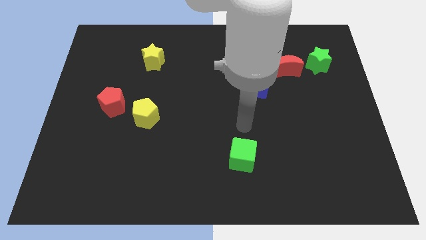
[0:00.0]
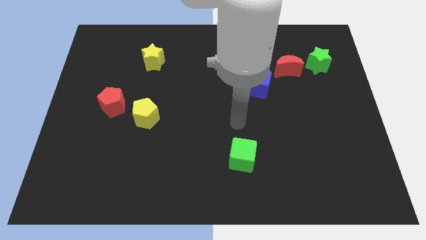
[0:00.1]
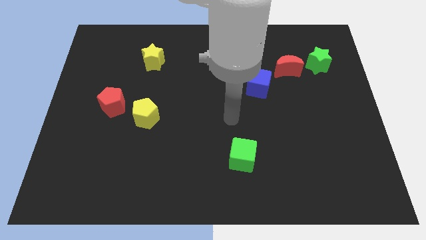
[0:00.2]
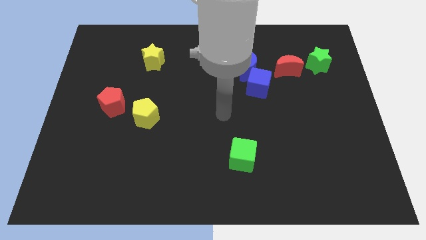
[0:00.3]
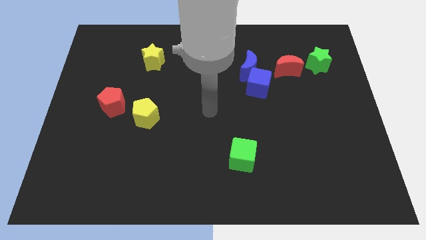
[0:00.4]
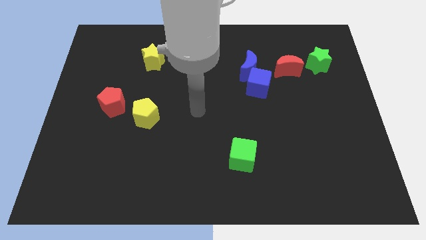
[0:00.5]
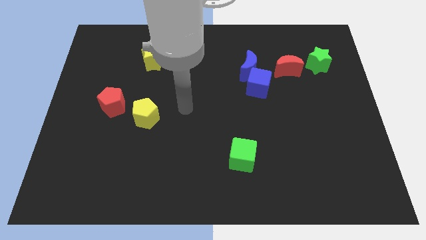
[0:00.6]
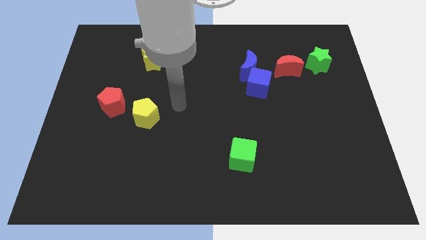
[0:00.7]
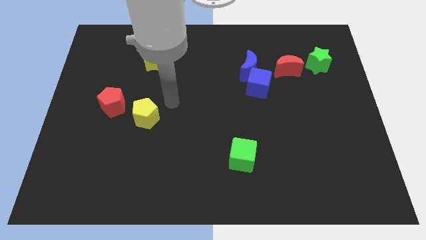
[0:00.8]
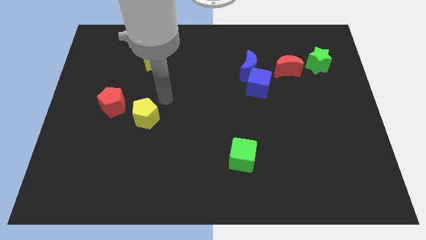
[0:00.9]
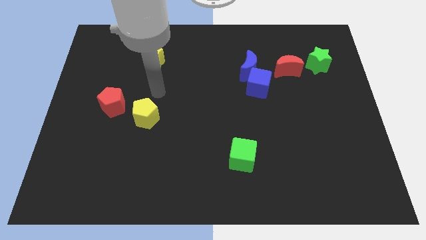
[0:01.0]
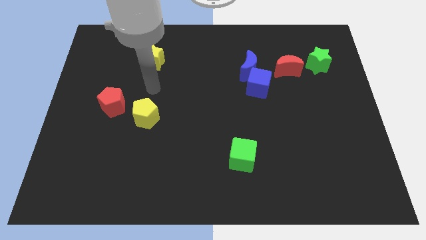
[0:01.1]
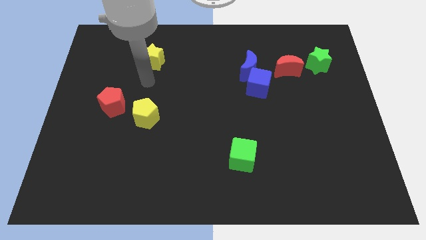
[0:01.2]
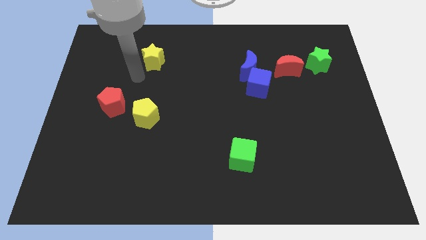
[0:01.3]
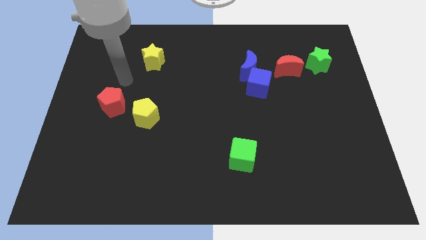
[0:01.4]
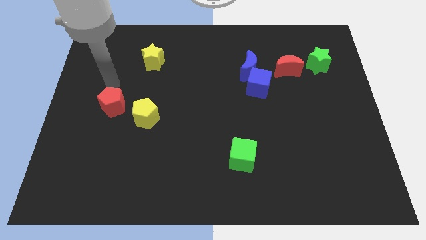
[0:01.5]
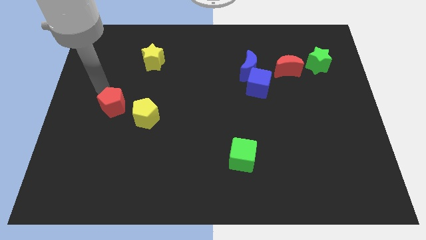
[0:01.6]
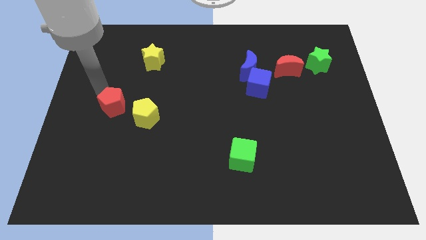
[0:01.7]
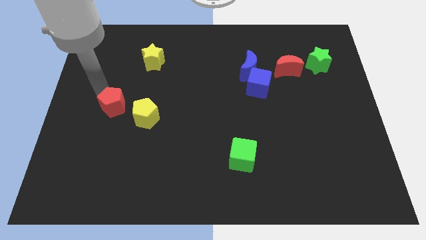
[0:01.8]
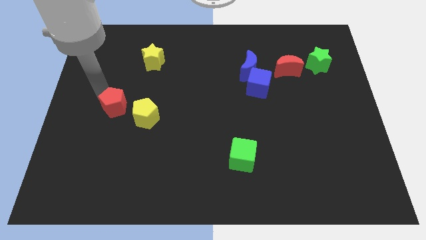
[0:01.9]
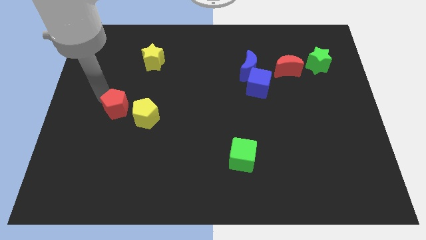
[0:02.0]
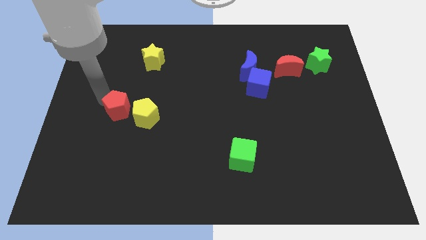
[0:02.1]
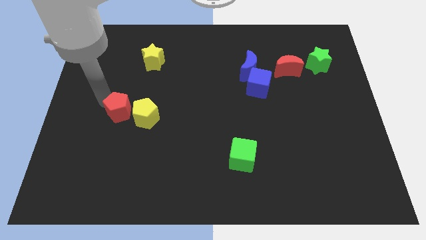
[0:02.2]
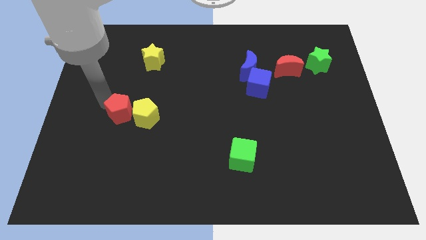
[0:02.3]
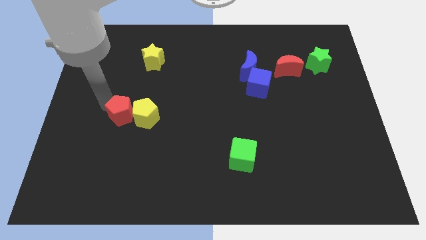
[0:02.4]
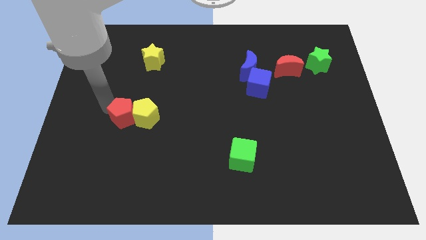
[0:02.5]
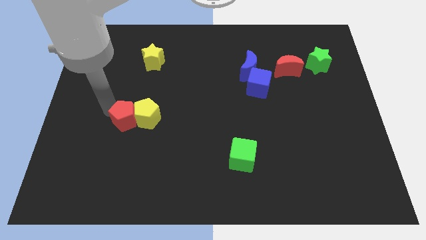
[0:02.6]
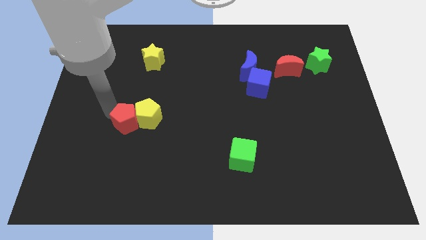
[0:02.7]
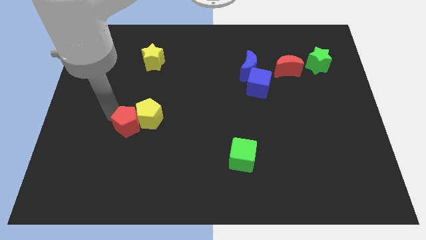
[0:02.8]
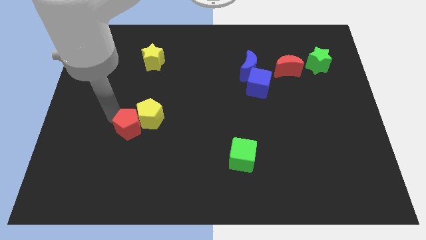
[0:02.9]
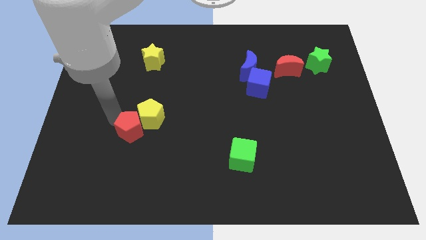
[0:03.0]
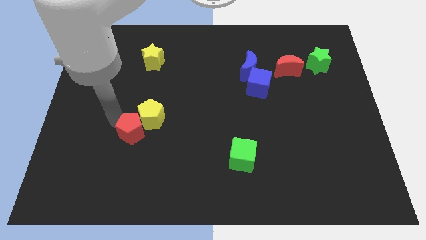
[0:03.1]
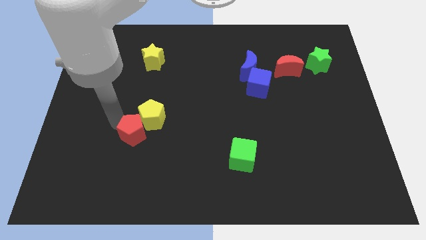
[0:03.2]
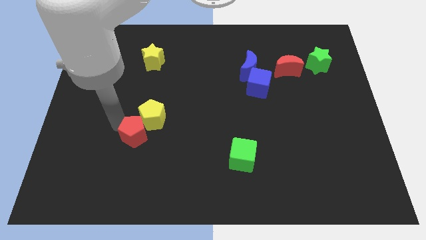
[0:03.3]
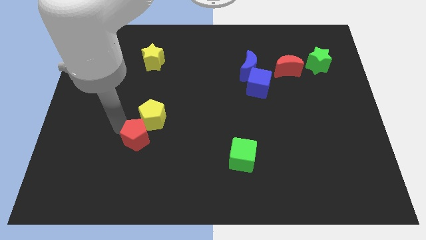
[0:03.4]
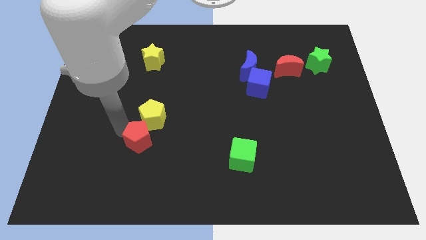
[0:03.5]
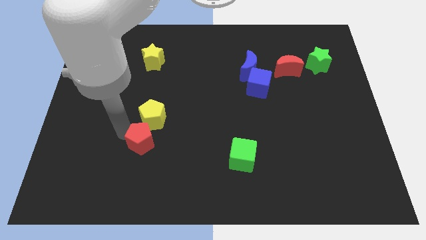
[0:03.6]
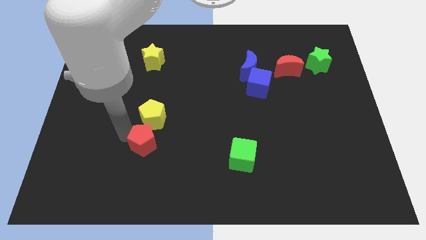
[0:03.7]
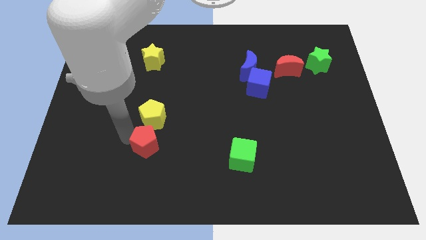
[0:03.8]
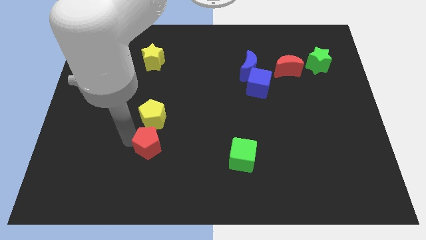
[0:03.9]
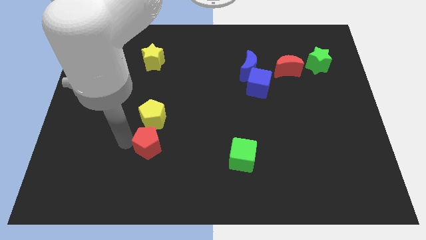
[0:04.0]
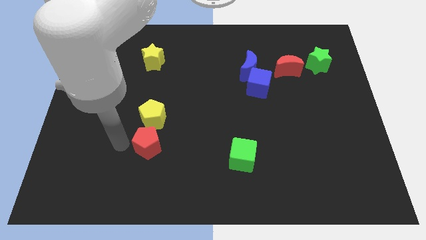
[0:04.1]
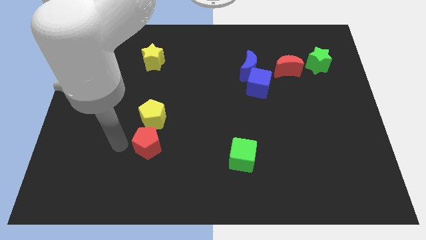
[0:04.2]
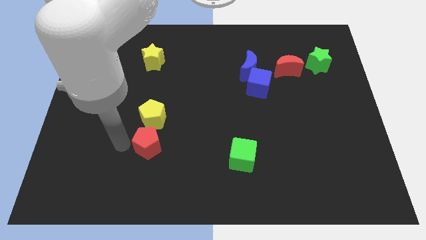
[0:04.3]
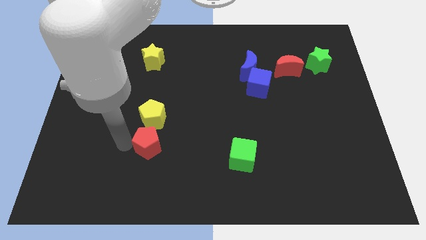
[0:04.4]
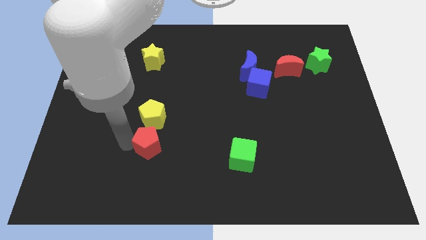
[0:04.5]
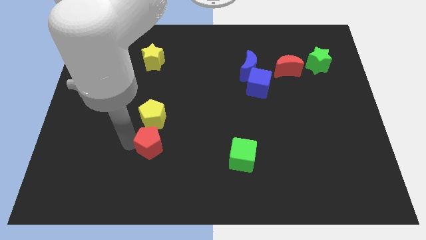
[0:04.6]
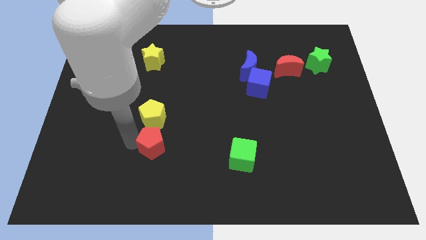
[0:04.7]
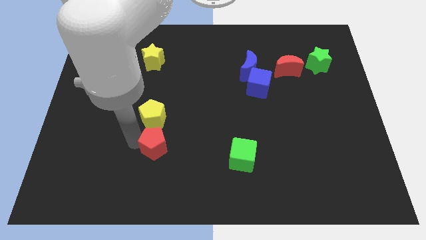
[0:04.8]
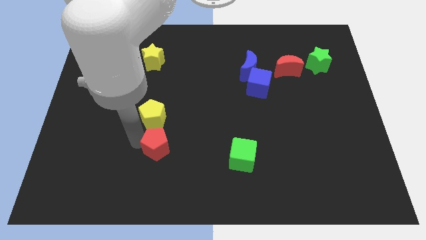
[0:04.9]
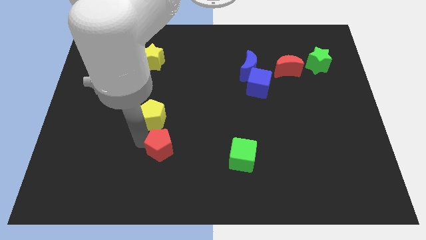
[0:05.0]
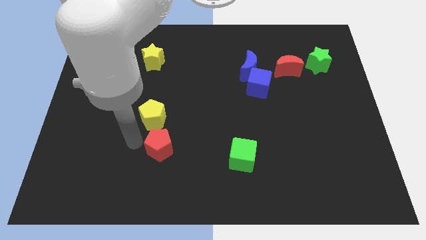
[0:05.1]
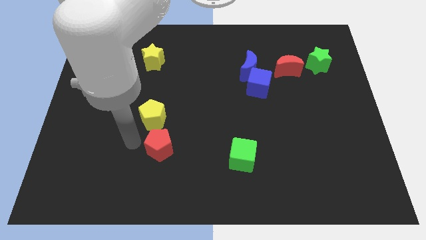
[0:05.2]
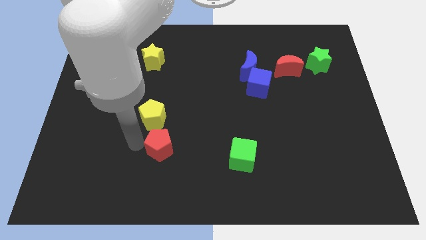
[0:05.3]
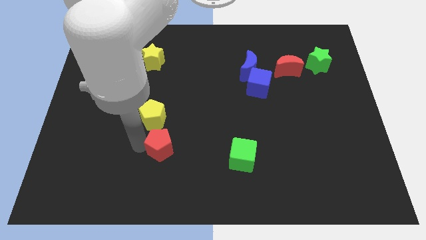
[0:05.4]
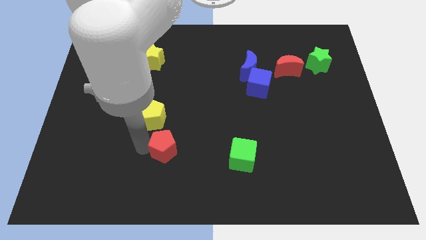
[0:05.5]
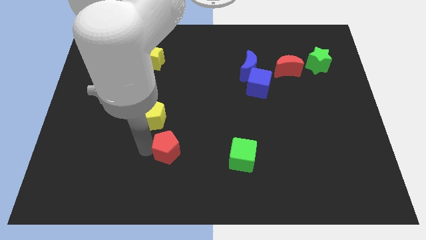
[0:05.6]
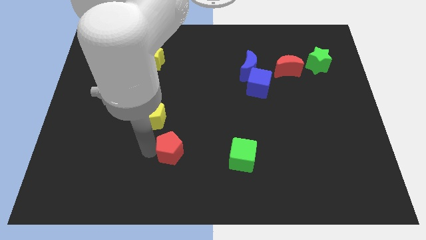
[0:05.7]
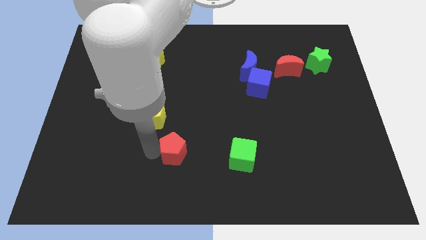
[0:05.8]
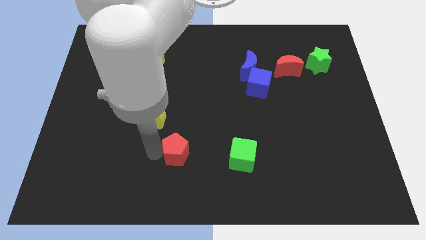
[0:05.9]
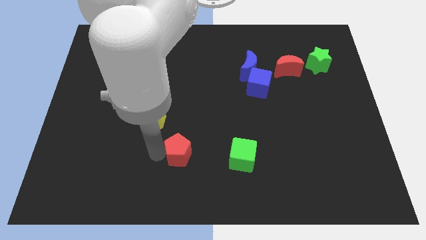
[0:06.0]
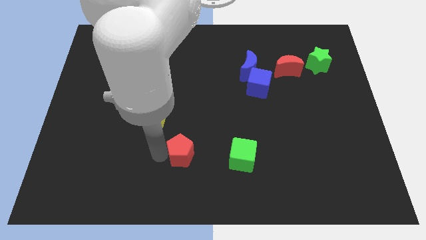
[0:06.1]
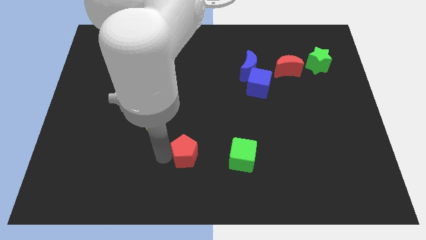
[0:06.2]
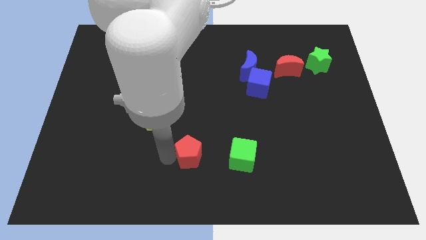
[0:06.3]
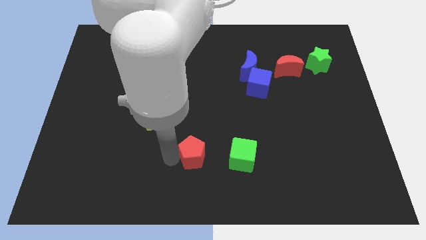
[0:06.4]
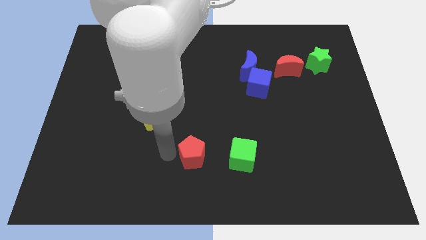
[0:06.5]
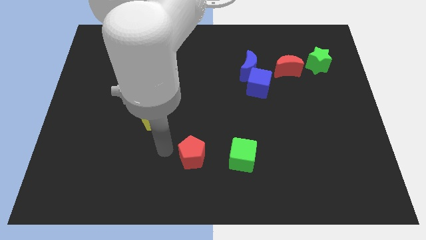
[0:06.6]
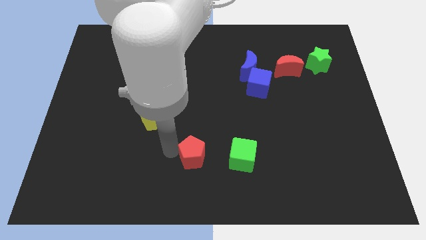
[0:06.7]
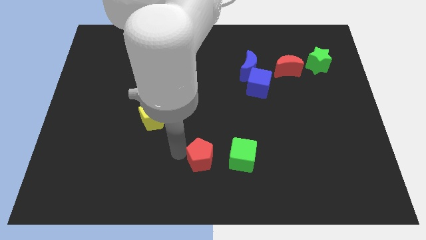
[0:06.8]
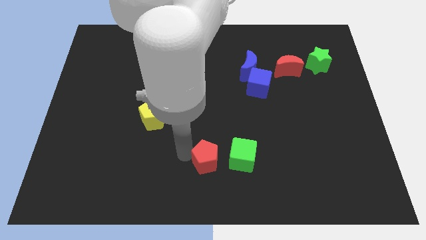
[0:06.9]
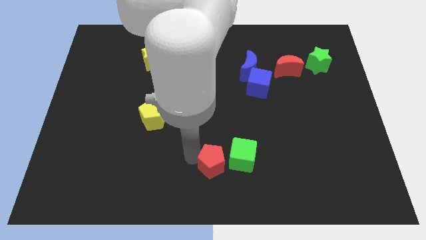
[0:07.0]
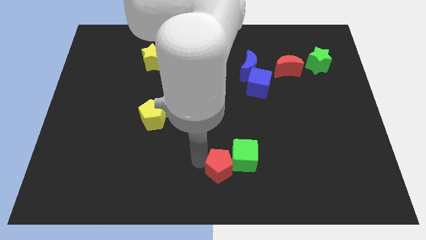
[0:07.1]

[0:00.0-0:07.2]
push the red pentagon to the green cube
